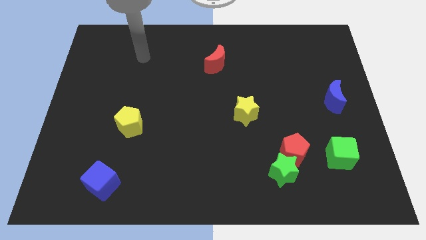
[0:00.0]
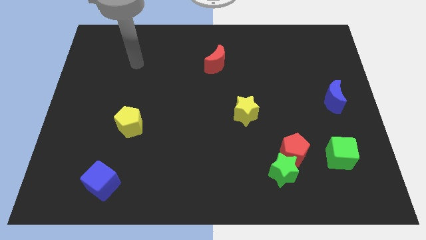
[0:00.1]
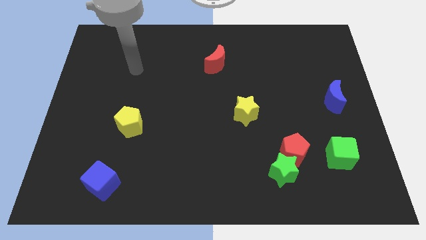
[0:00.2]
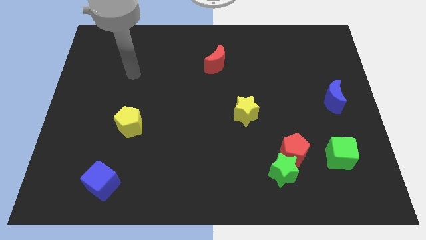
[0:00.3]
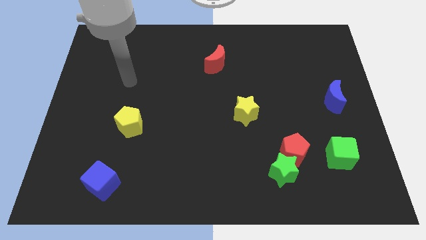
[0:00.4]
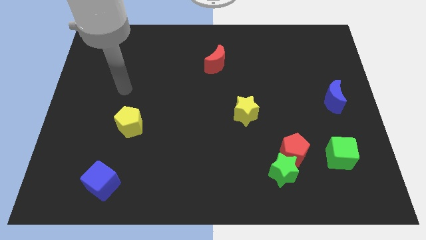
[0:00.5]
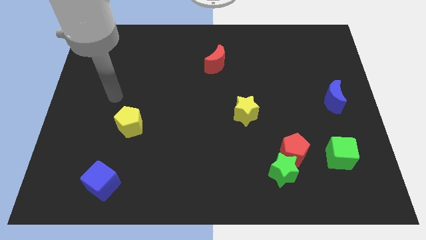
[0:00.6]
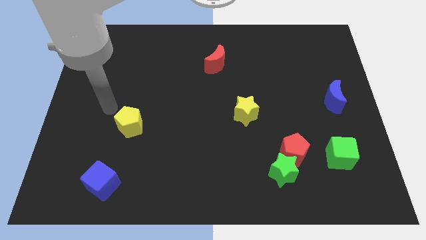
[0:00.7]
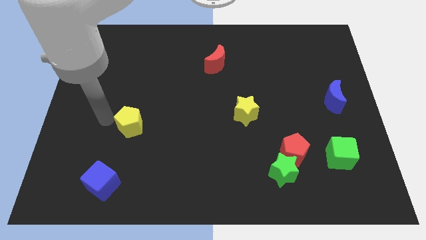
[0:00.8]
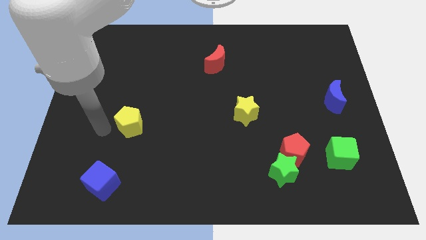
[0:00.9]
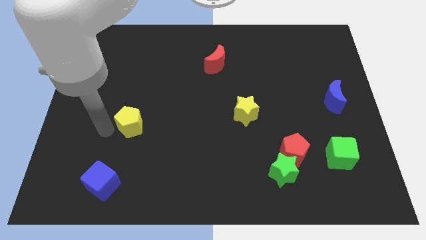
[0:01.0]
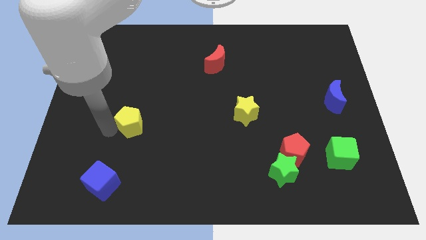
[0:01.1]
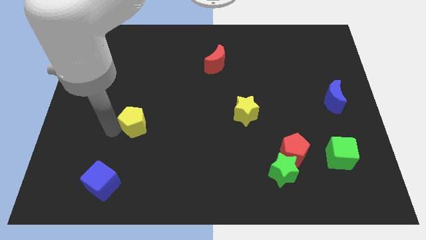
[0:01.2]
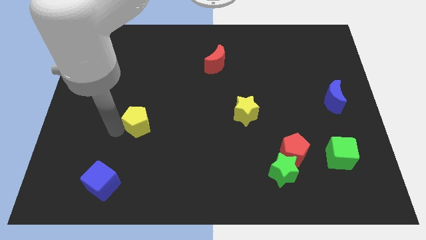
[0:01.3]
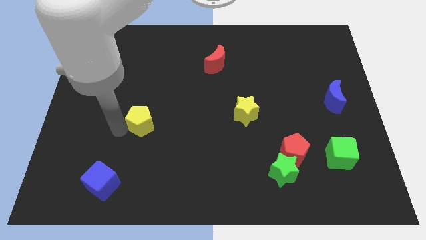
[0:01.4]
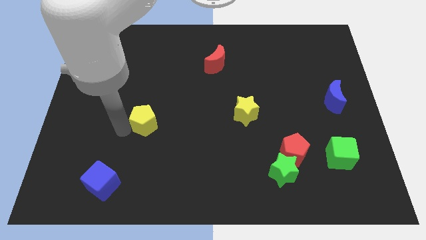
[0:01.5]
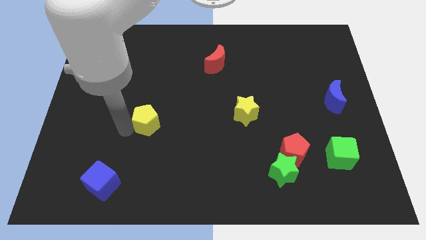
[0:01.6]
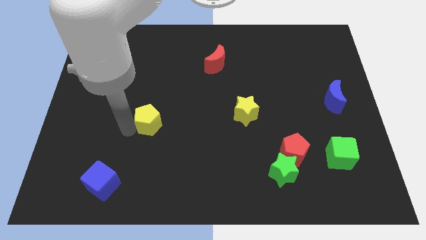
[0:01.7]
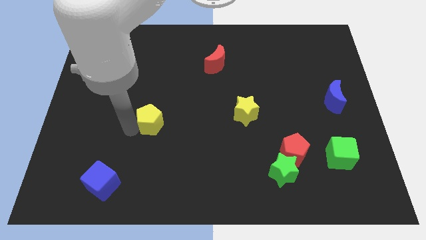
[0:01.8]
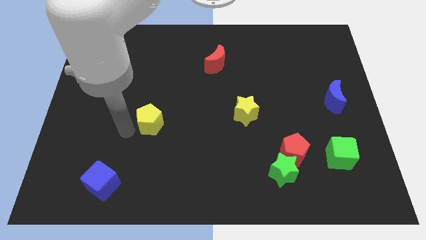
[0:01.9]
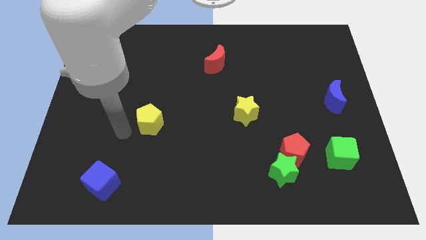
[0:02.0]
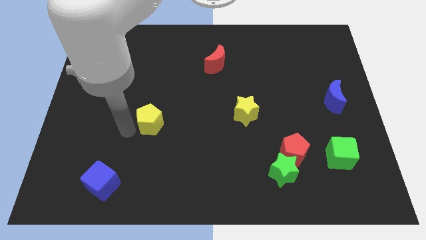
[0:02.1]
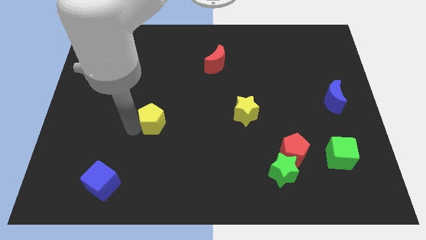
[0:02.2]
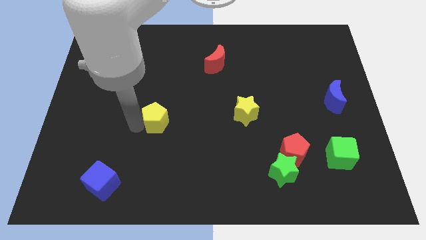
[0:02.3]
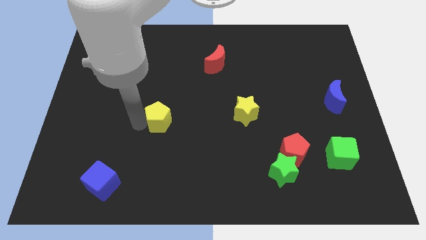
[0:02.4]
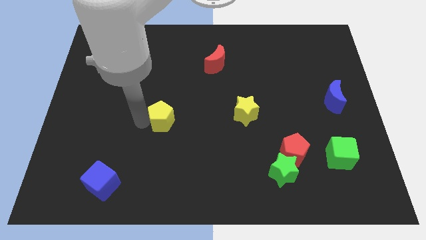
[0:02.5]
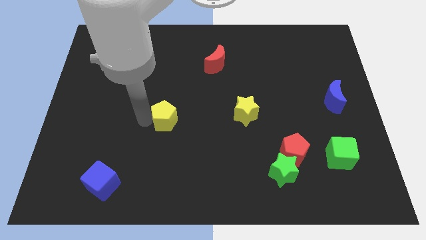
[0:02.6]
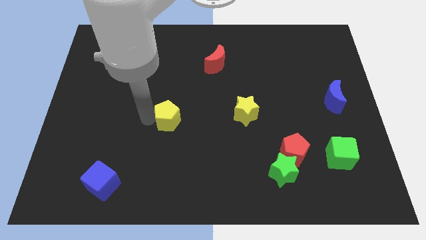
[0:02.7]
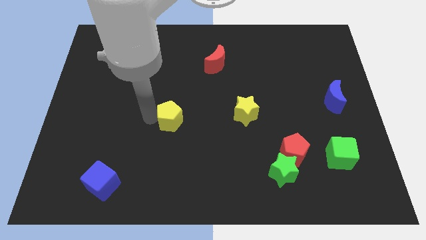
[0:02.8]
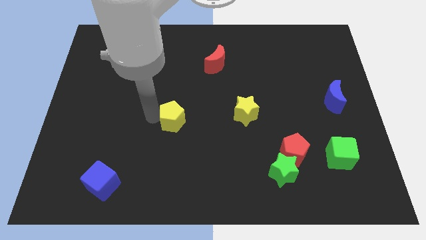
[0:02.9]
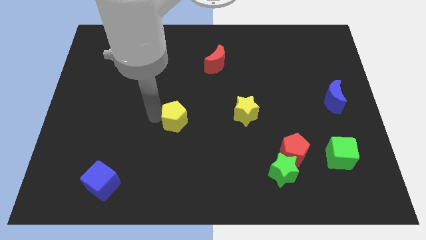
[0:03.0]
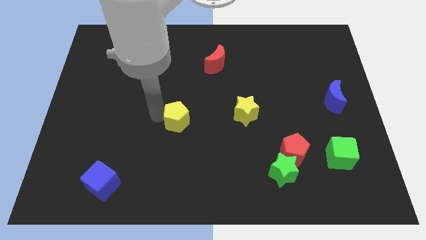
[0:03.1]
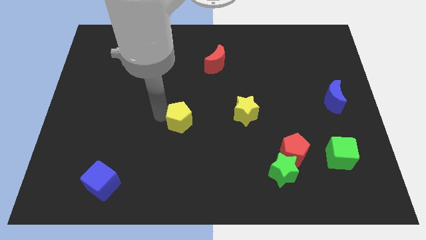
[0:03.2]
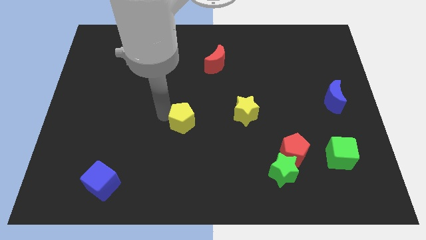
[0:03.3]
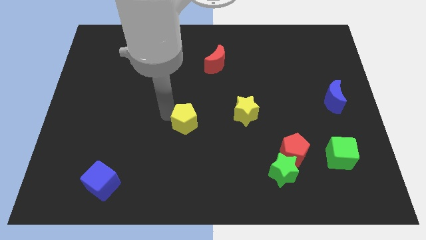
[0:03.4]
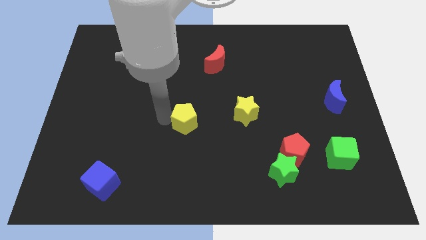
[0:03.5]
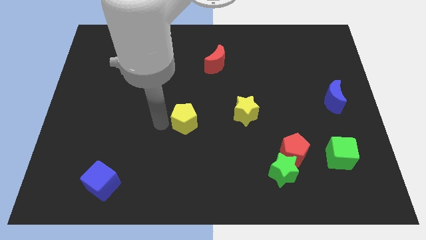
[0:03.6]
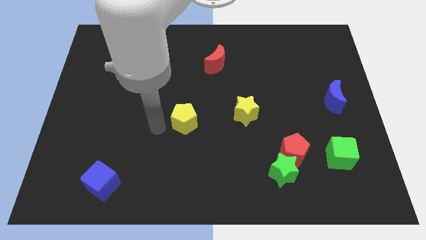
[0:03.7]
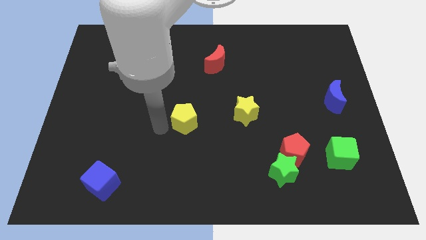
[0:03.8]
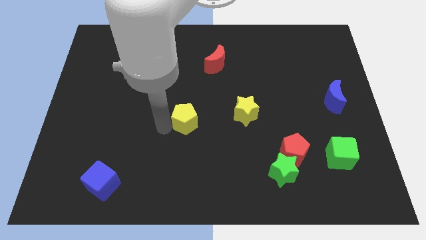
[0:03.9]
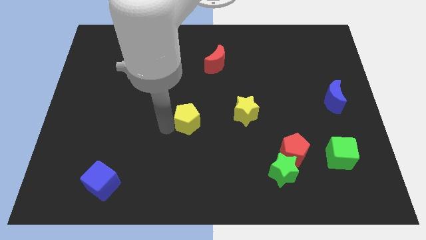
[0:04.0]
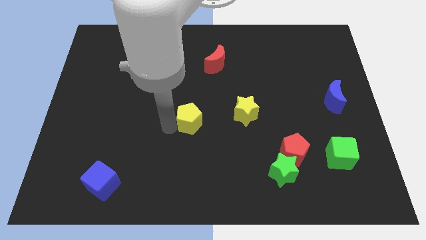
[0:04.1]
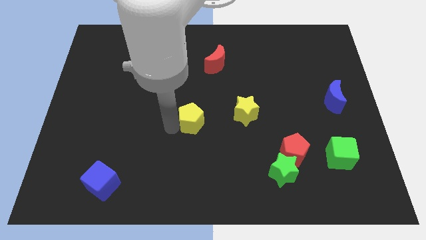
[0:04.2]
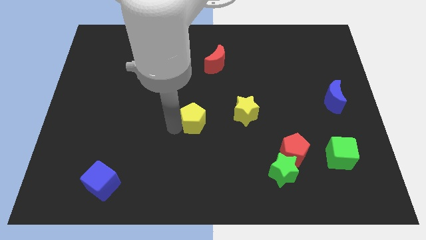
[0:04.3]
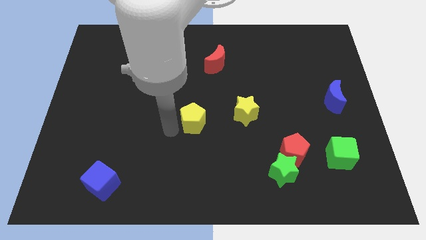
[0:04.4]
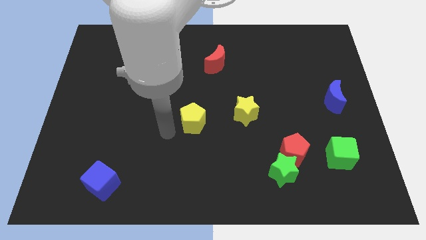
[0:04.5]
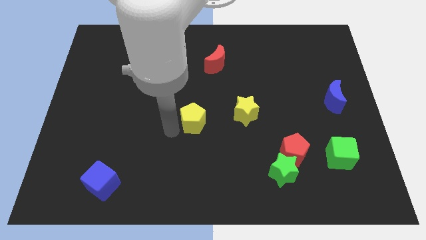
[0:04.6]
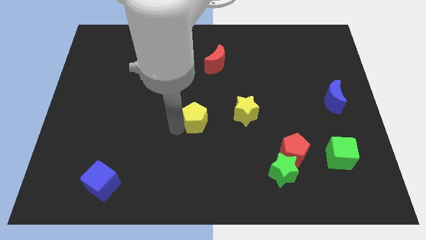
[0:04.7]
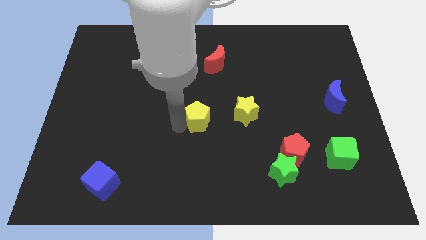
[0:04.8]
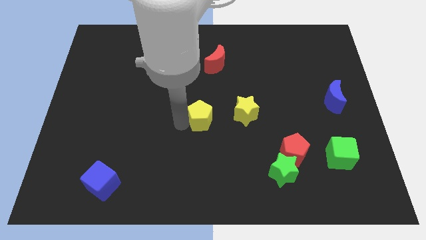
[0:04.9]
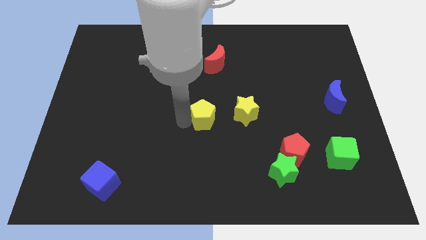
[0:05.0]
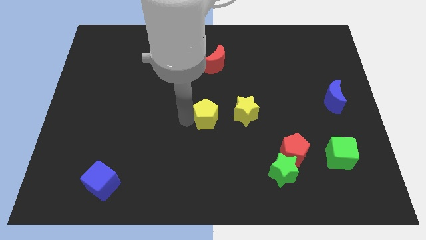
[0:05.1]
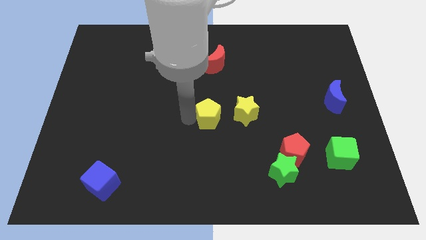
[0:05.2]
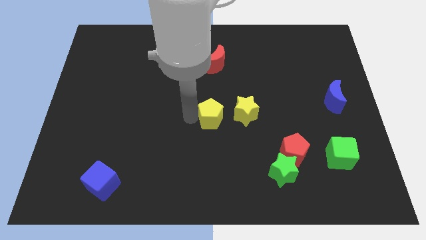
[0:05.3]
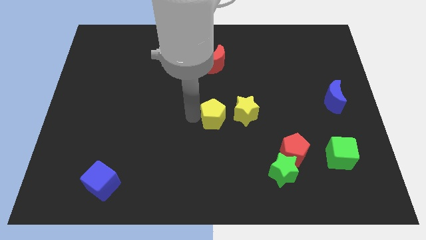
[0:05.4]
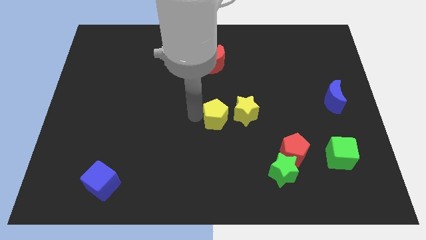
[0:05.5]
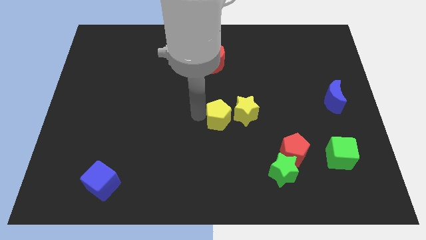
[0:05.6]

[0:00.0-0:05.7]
put the yellow pentagon towards the yellow star

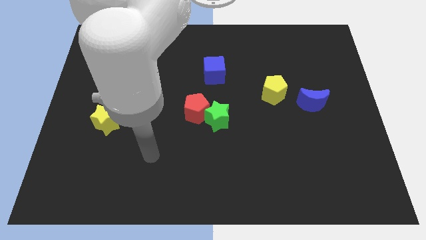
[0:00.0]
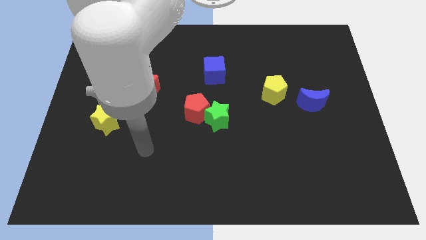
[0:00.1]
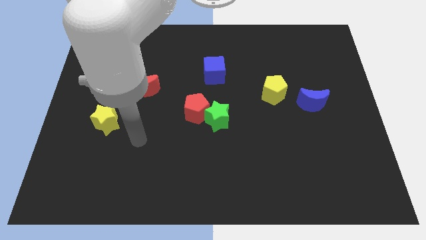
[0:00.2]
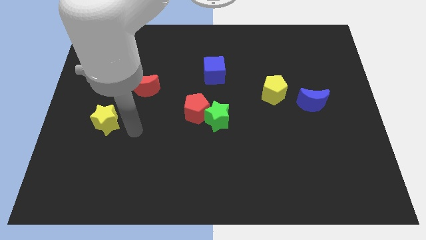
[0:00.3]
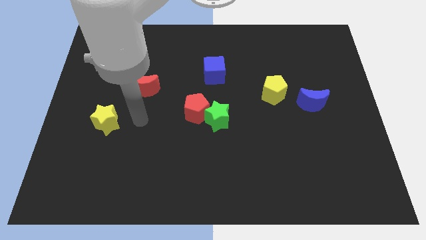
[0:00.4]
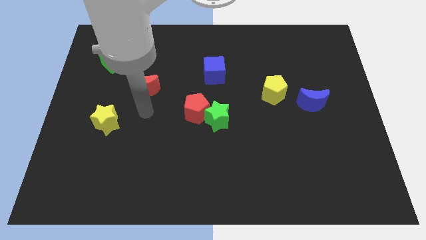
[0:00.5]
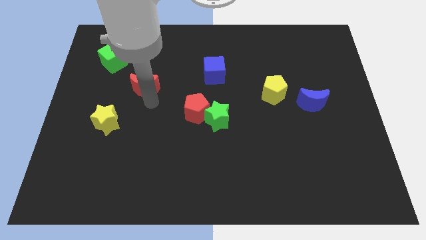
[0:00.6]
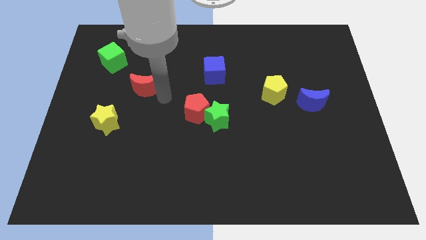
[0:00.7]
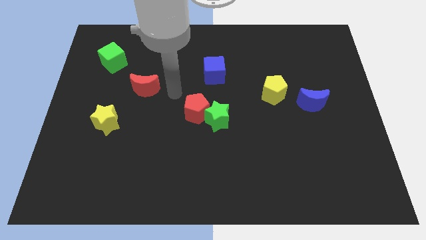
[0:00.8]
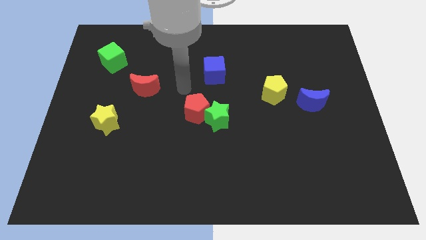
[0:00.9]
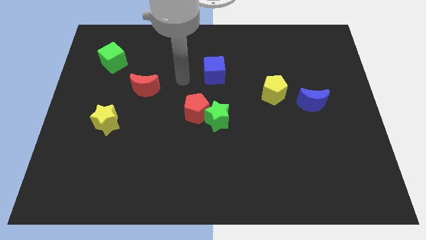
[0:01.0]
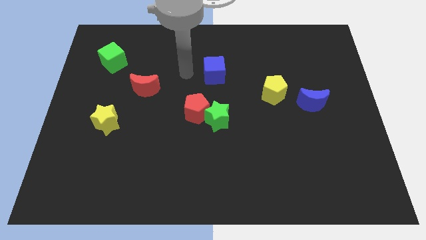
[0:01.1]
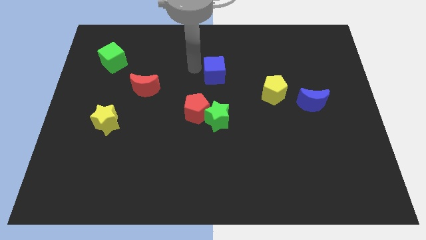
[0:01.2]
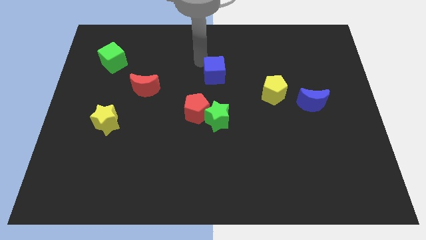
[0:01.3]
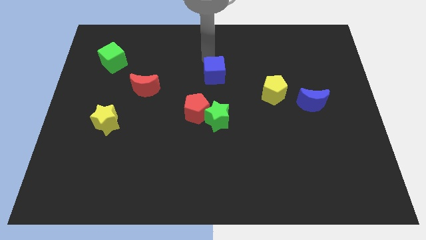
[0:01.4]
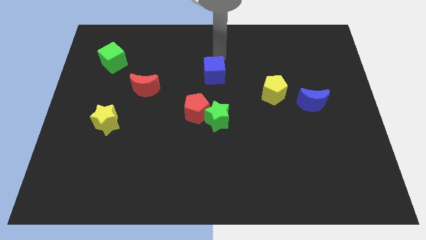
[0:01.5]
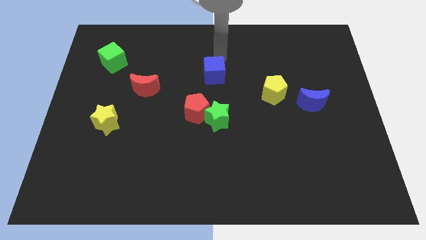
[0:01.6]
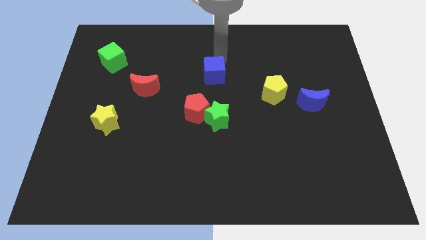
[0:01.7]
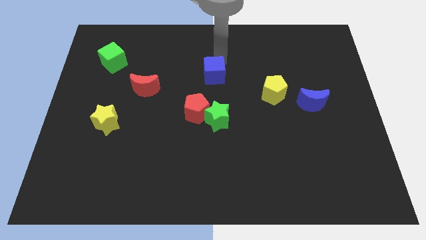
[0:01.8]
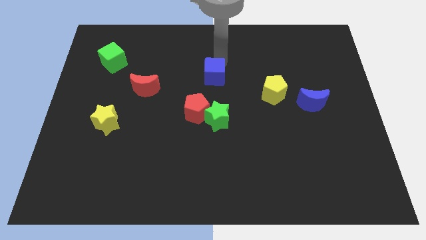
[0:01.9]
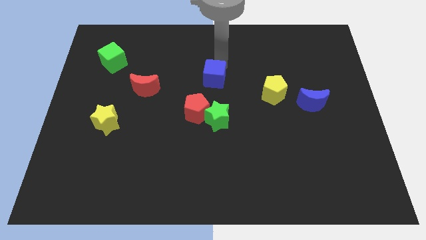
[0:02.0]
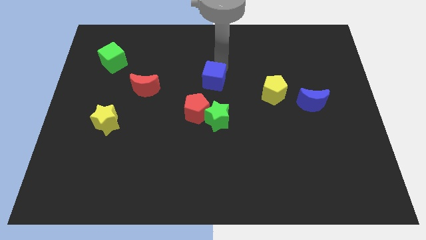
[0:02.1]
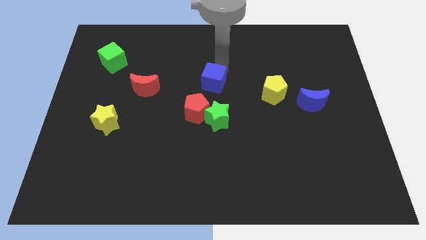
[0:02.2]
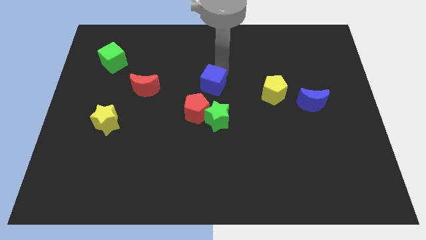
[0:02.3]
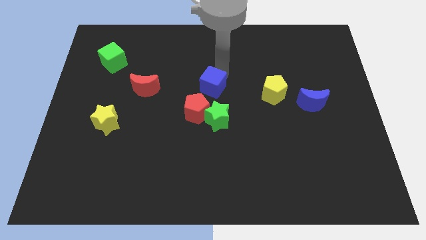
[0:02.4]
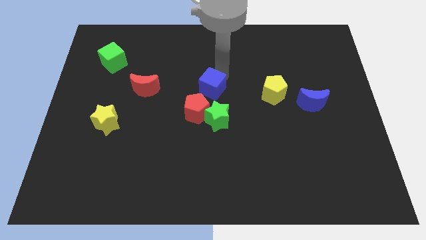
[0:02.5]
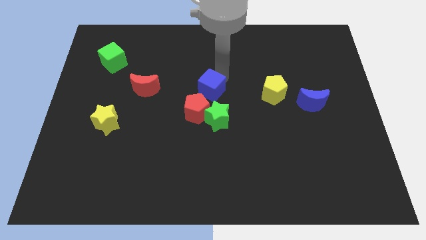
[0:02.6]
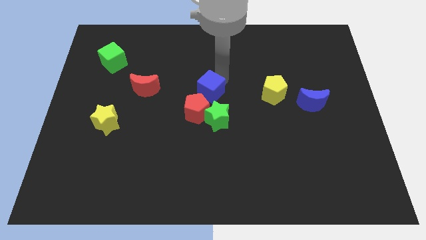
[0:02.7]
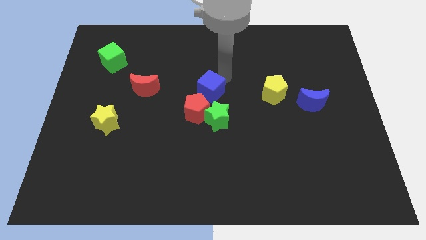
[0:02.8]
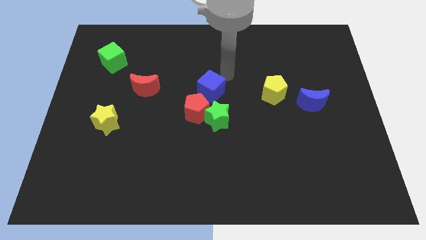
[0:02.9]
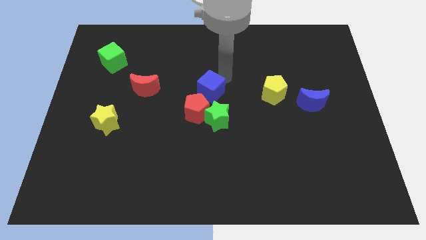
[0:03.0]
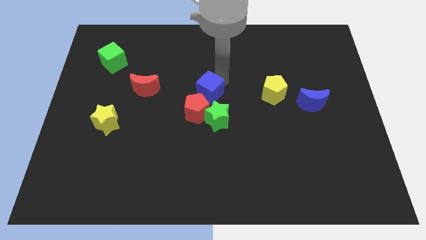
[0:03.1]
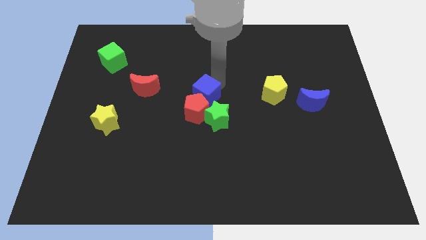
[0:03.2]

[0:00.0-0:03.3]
push the blue cube next to the red pentagon
